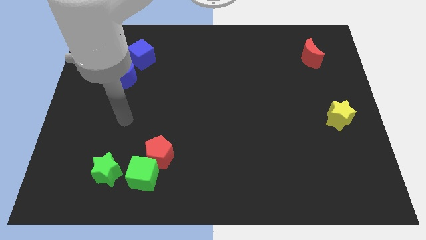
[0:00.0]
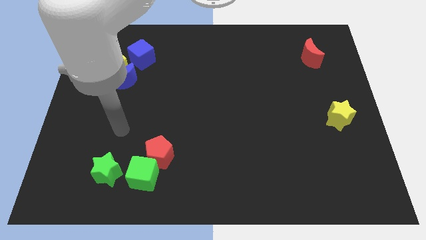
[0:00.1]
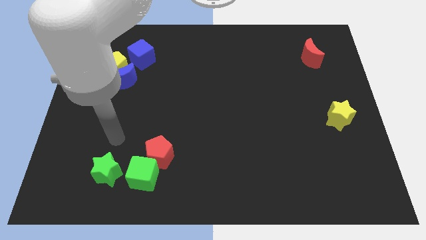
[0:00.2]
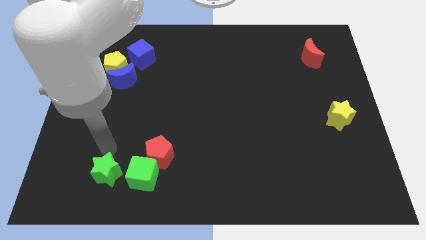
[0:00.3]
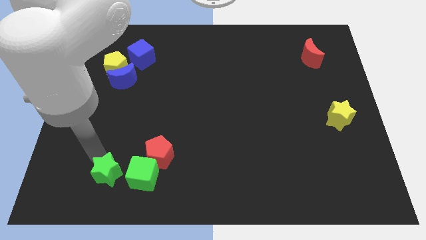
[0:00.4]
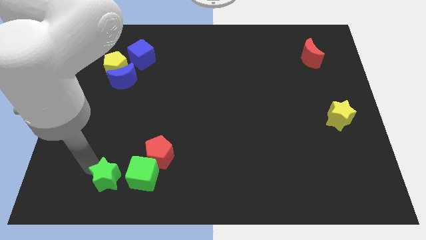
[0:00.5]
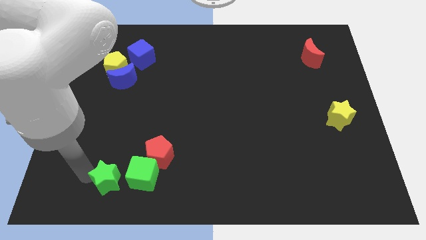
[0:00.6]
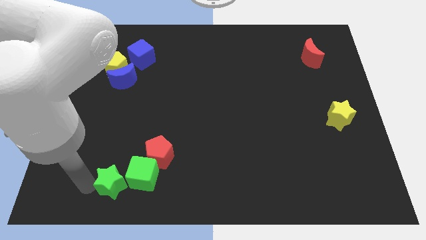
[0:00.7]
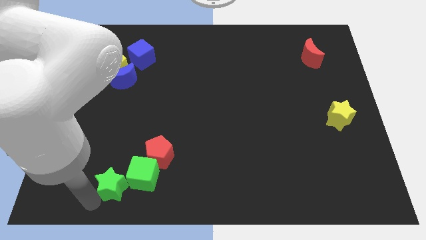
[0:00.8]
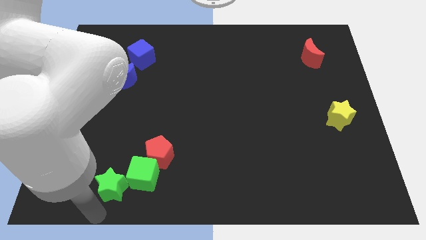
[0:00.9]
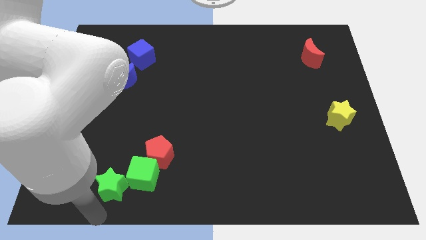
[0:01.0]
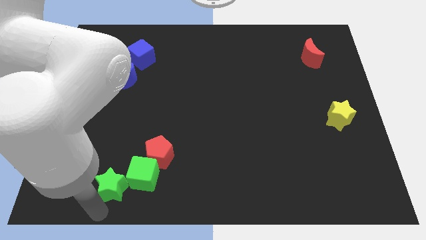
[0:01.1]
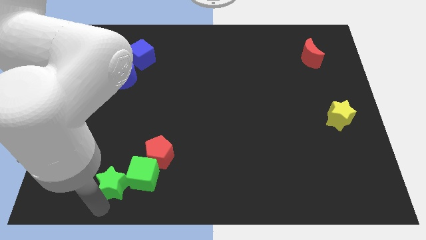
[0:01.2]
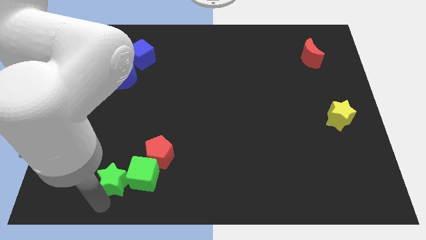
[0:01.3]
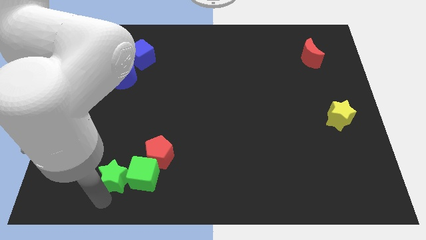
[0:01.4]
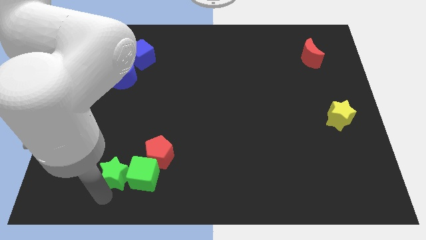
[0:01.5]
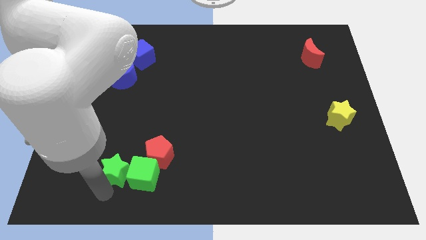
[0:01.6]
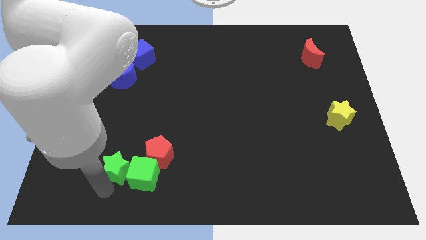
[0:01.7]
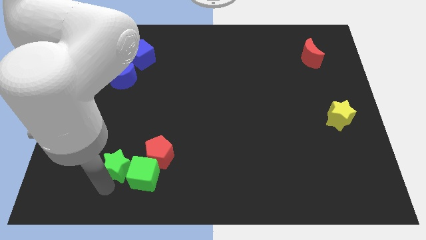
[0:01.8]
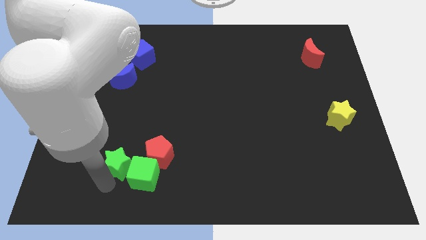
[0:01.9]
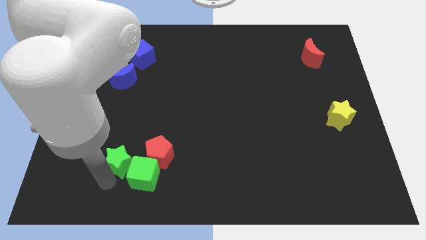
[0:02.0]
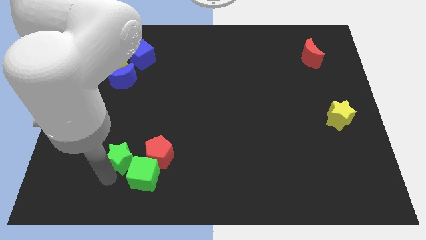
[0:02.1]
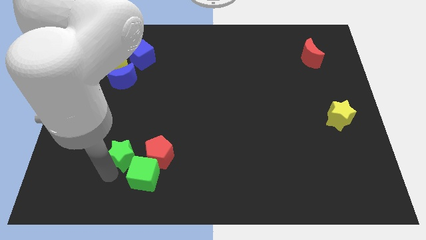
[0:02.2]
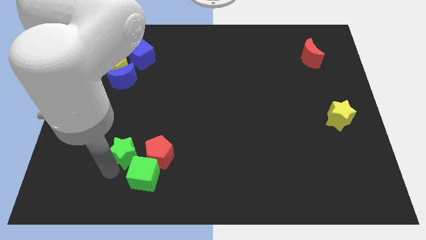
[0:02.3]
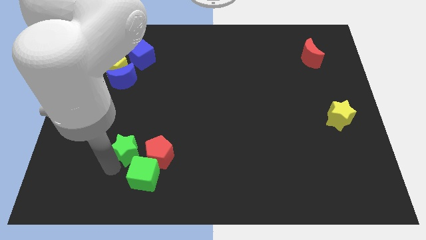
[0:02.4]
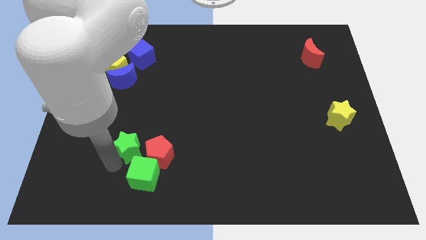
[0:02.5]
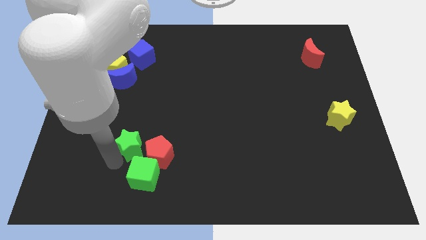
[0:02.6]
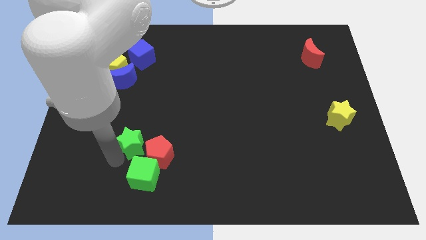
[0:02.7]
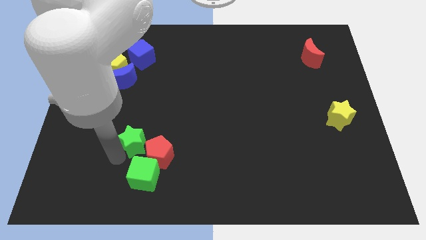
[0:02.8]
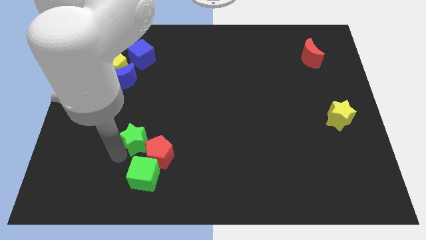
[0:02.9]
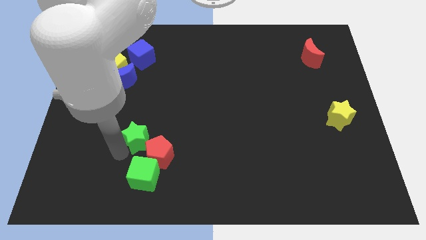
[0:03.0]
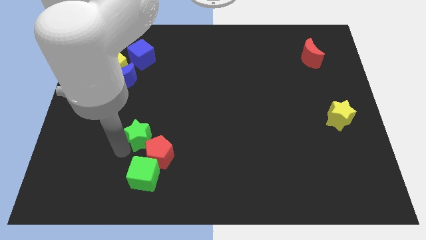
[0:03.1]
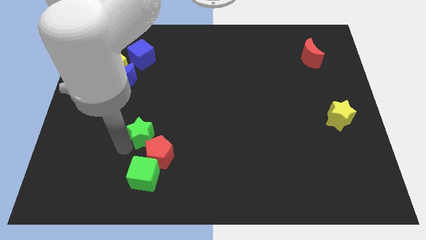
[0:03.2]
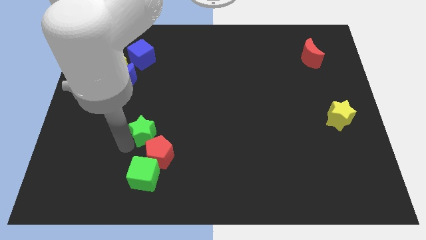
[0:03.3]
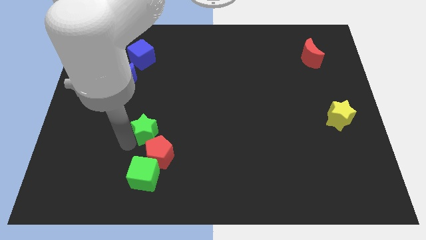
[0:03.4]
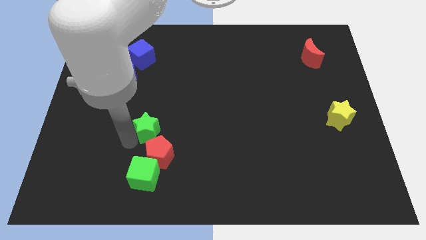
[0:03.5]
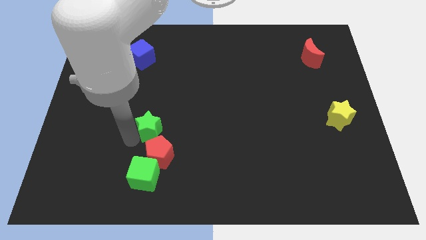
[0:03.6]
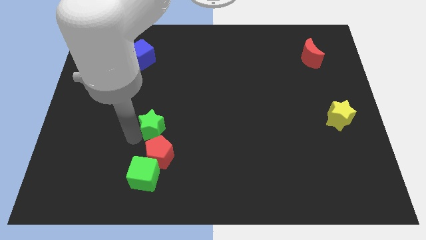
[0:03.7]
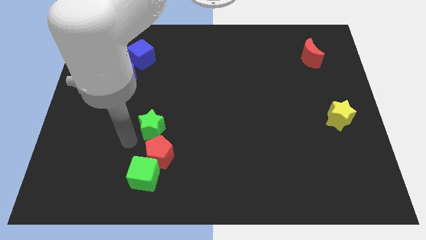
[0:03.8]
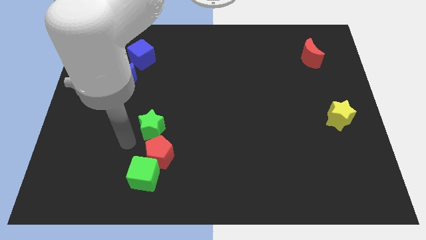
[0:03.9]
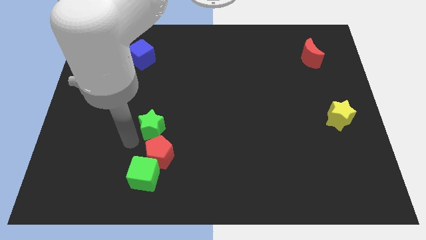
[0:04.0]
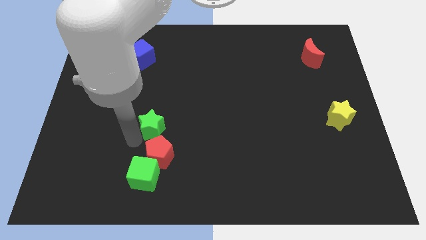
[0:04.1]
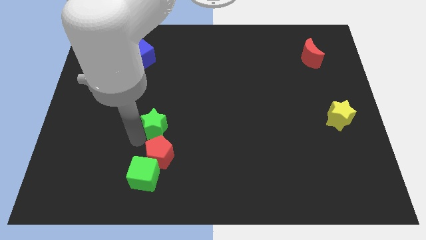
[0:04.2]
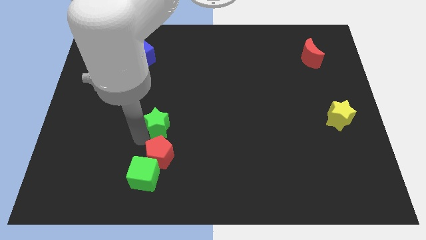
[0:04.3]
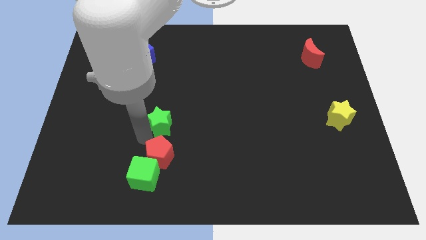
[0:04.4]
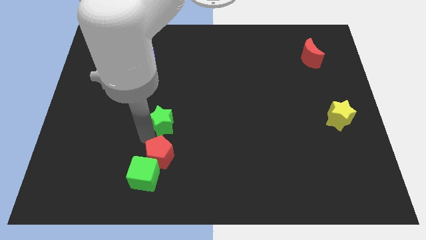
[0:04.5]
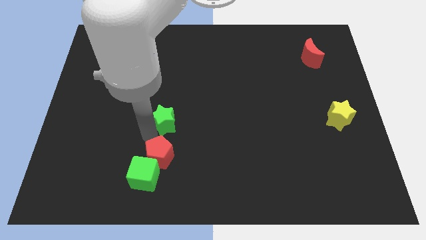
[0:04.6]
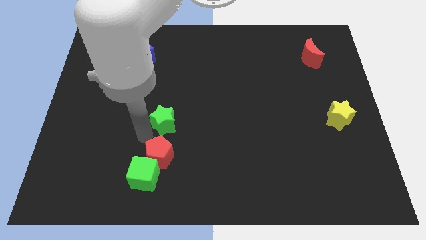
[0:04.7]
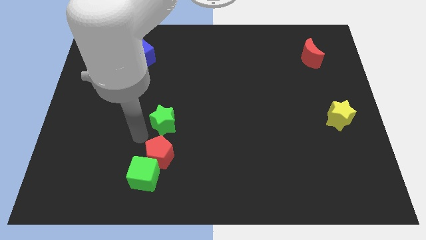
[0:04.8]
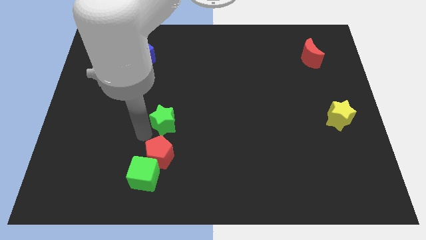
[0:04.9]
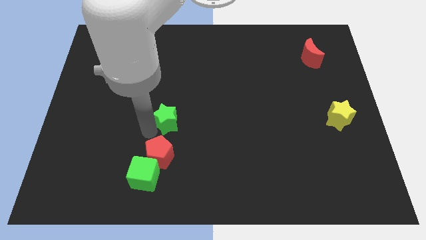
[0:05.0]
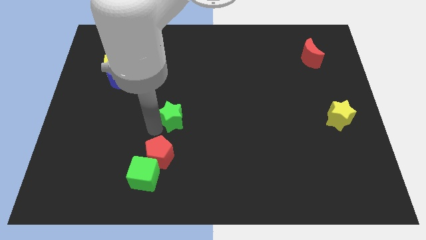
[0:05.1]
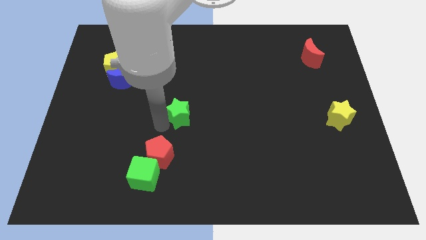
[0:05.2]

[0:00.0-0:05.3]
slide the green star upwards and right

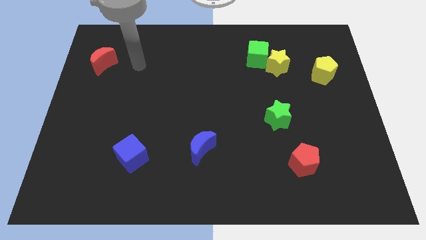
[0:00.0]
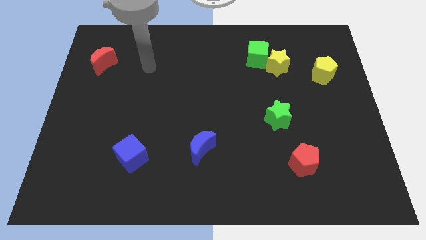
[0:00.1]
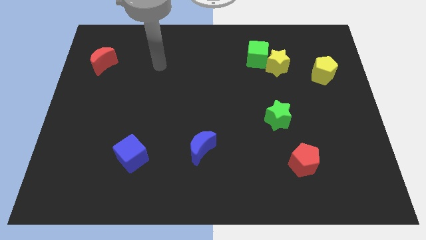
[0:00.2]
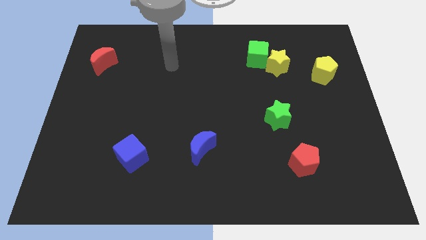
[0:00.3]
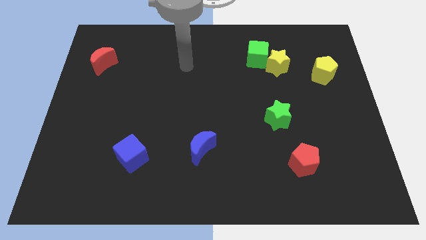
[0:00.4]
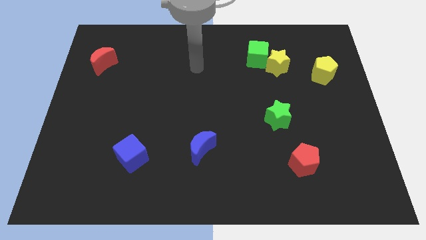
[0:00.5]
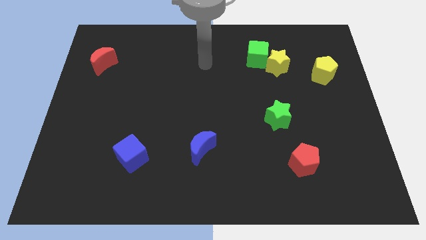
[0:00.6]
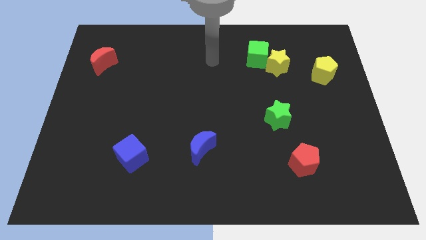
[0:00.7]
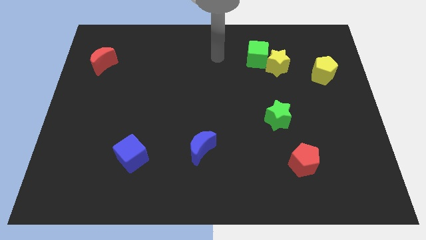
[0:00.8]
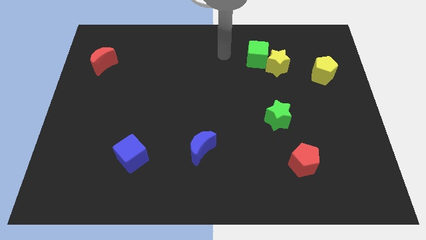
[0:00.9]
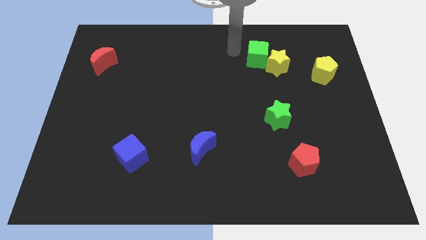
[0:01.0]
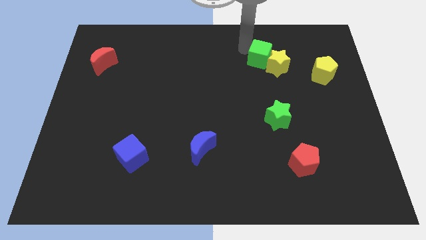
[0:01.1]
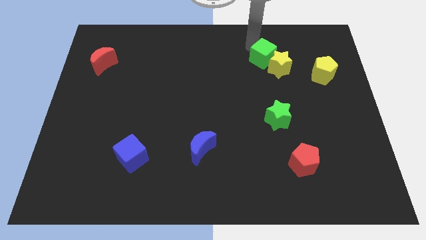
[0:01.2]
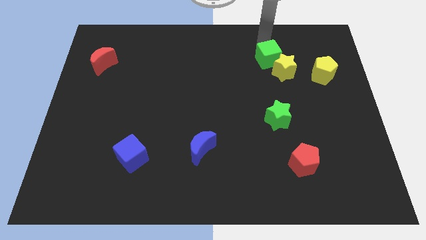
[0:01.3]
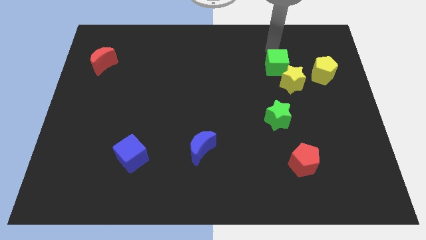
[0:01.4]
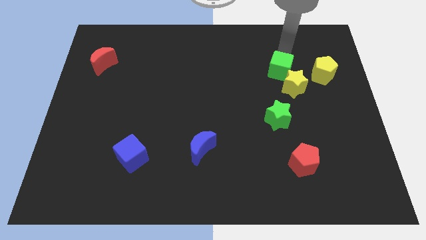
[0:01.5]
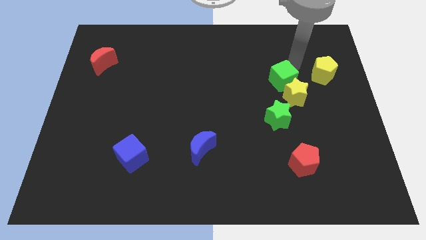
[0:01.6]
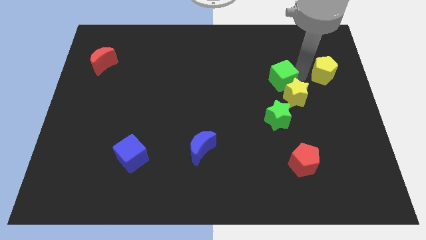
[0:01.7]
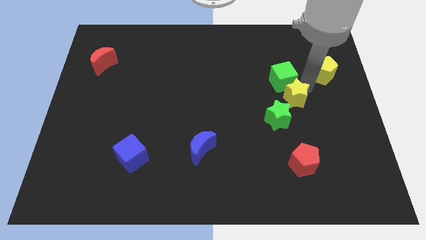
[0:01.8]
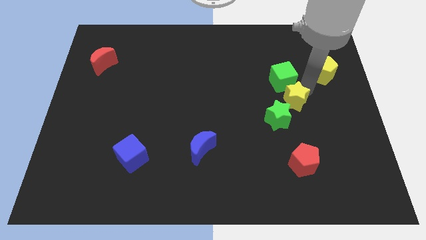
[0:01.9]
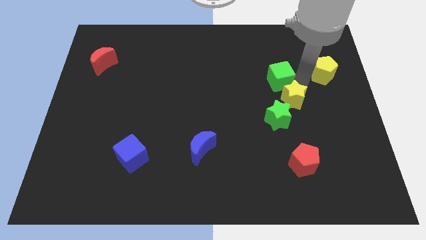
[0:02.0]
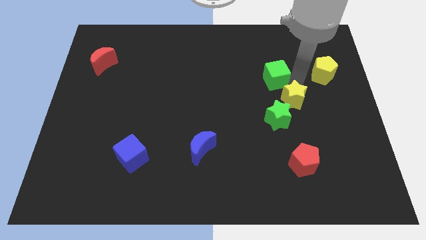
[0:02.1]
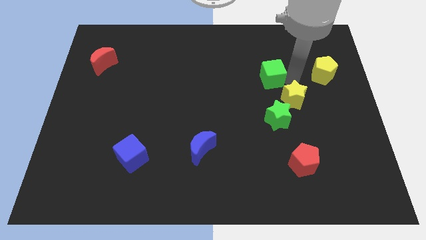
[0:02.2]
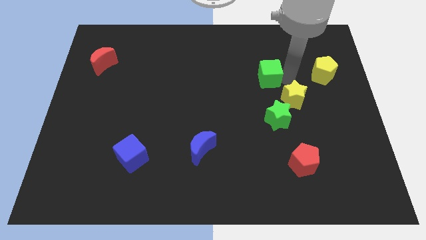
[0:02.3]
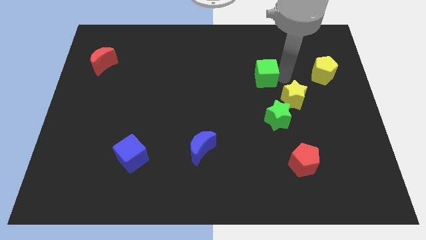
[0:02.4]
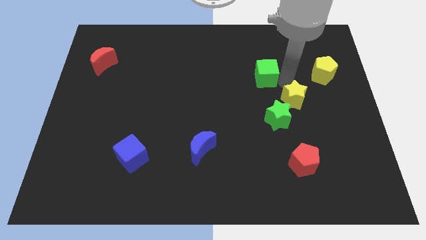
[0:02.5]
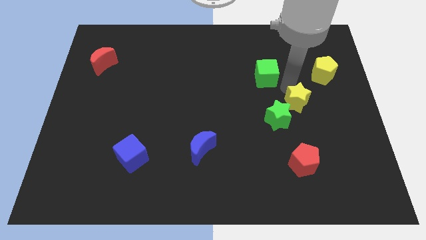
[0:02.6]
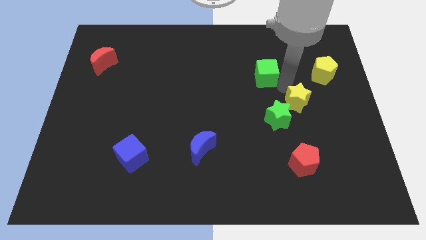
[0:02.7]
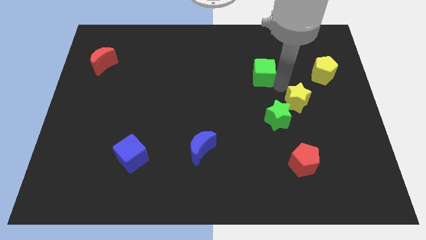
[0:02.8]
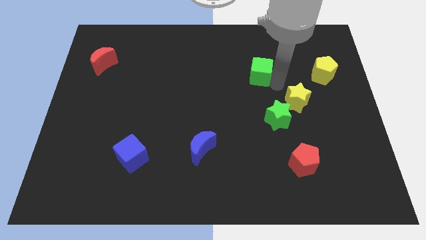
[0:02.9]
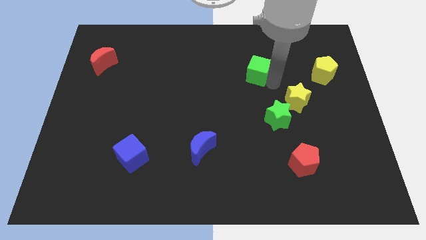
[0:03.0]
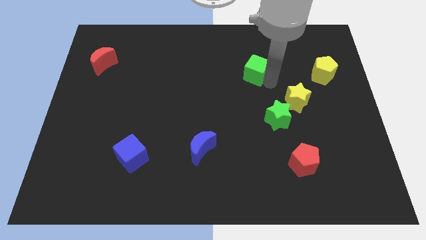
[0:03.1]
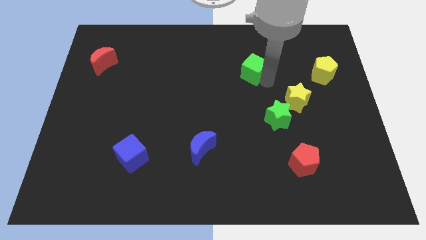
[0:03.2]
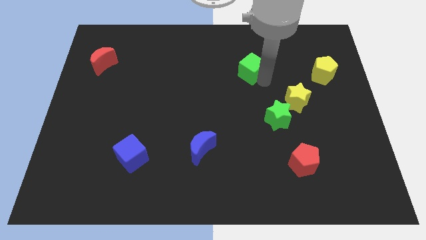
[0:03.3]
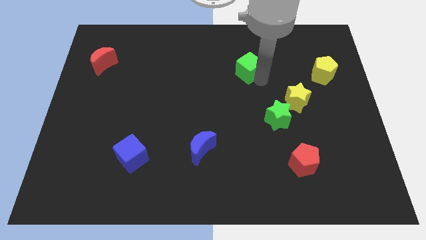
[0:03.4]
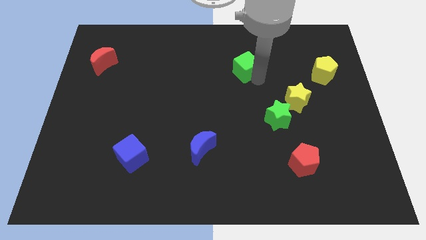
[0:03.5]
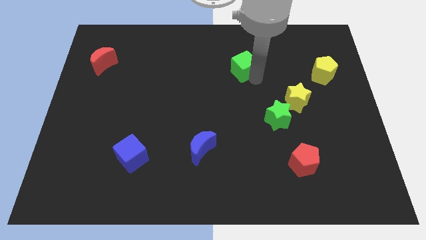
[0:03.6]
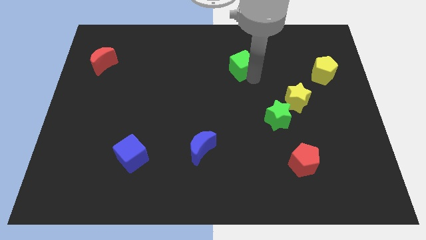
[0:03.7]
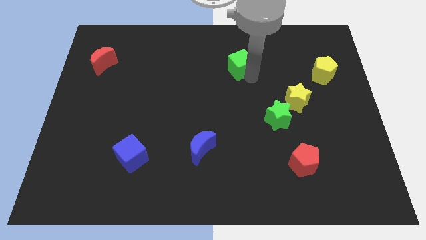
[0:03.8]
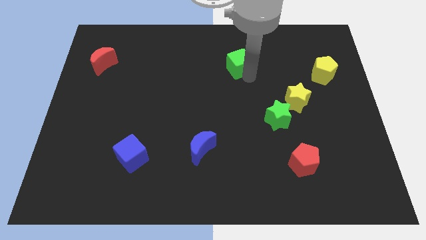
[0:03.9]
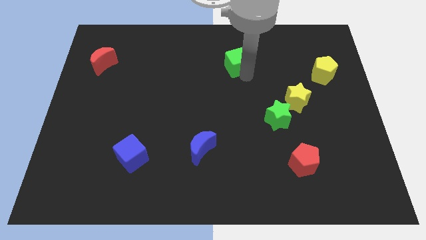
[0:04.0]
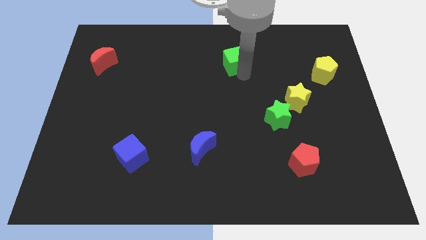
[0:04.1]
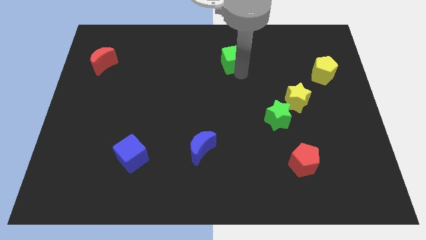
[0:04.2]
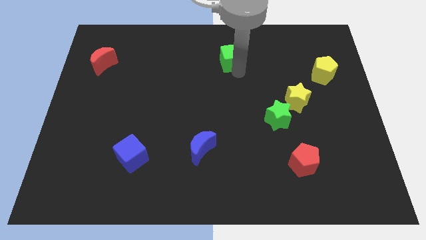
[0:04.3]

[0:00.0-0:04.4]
push the green cube a little bit left
